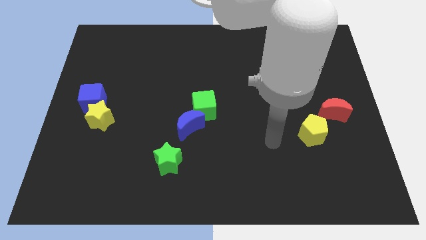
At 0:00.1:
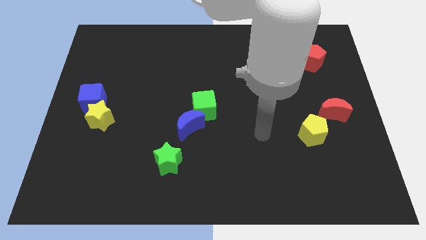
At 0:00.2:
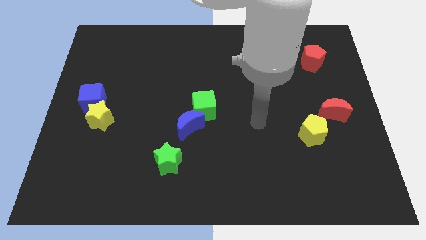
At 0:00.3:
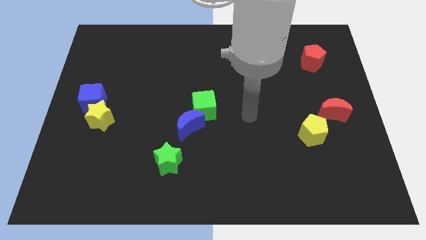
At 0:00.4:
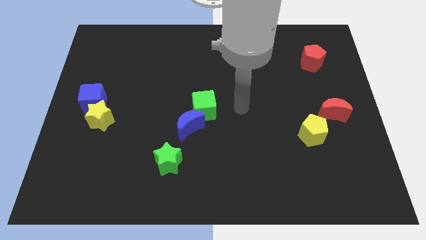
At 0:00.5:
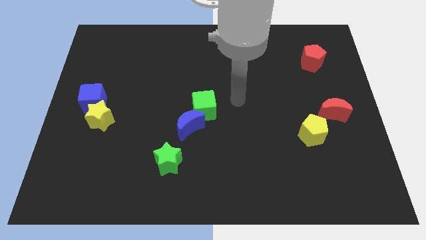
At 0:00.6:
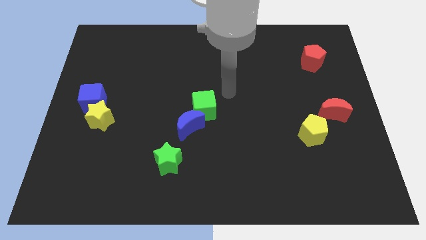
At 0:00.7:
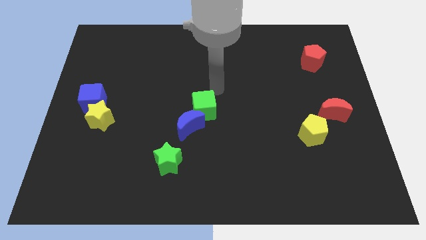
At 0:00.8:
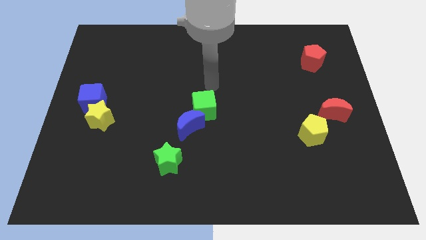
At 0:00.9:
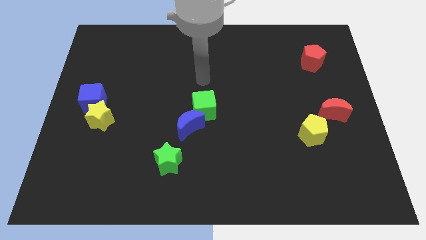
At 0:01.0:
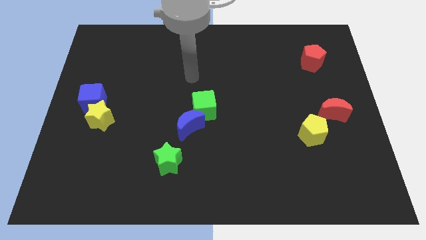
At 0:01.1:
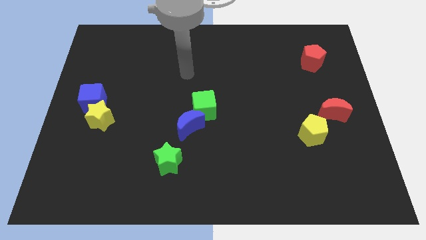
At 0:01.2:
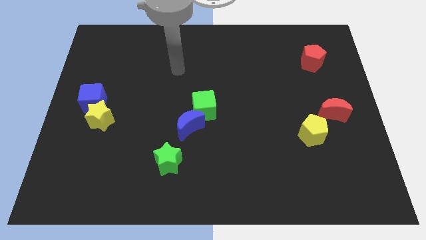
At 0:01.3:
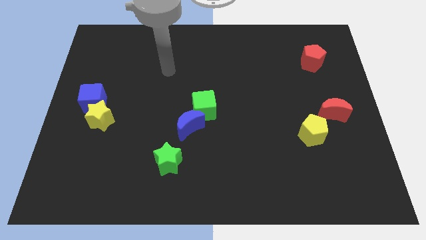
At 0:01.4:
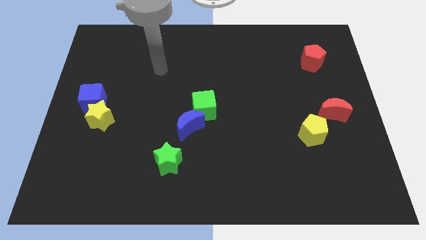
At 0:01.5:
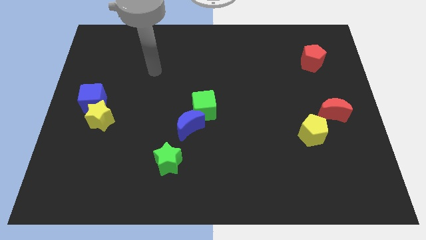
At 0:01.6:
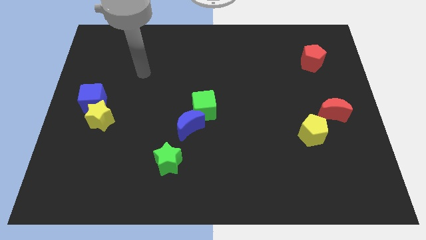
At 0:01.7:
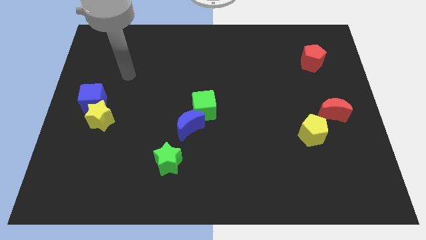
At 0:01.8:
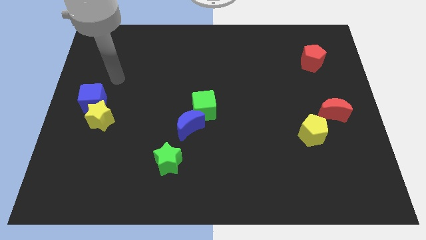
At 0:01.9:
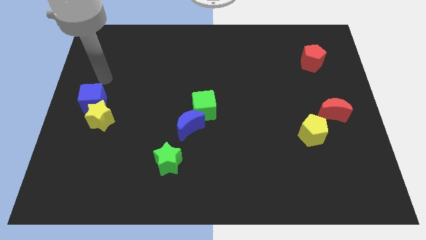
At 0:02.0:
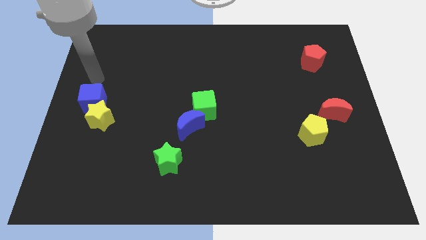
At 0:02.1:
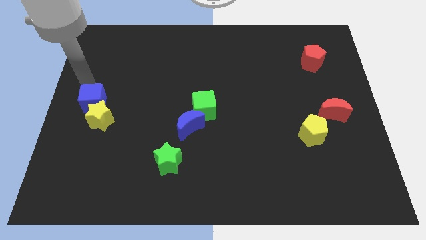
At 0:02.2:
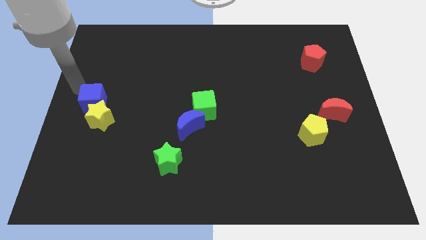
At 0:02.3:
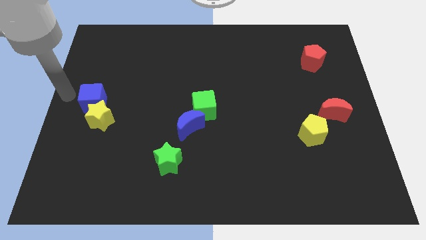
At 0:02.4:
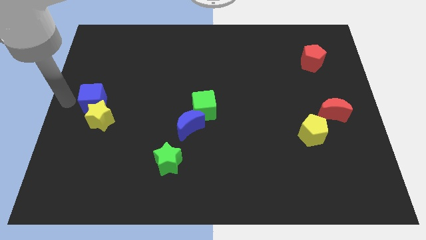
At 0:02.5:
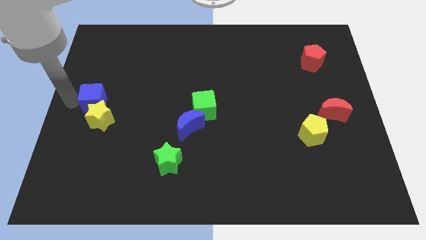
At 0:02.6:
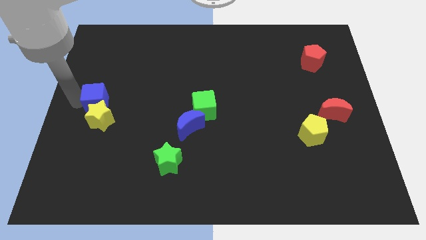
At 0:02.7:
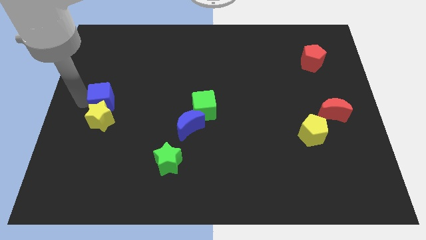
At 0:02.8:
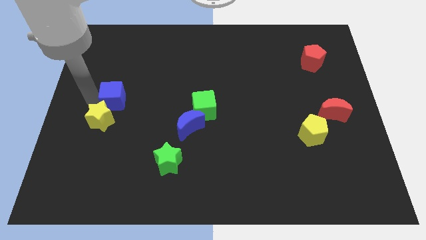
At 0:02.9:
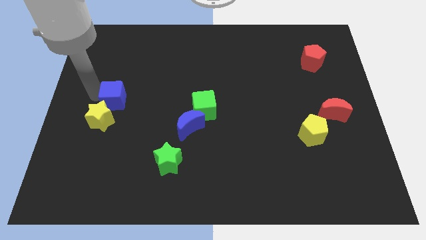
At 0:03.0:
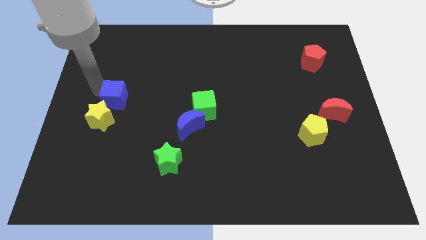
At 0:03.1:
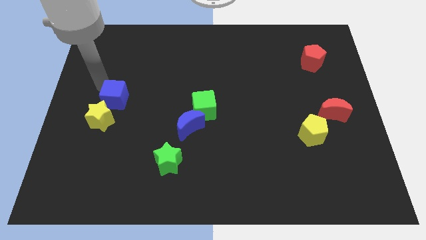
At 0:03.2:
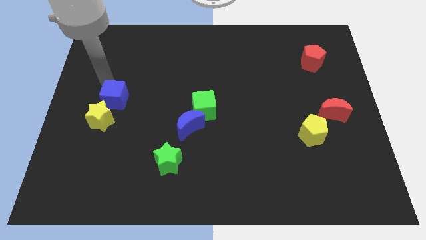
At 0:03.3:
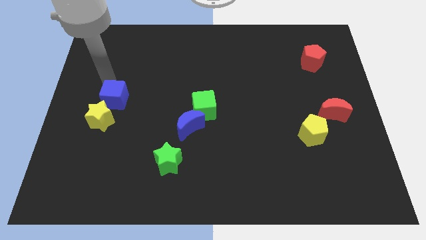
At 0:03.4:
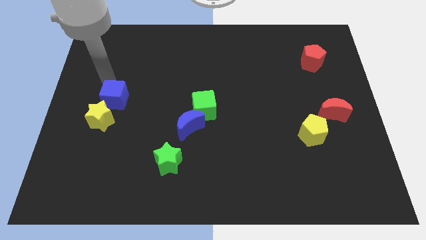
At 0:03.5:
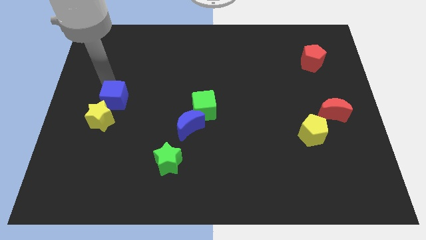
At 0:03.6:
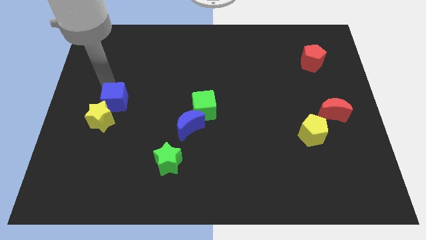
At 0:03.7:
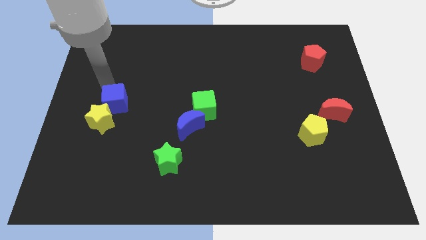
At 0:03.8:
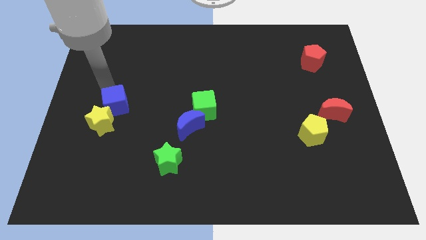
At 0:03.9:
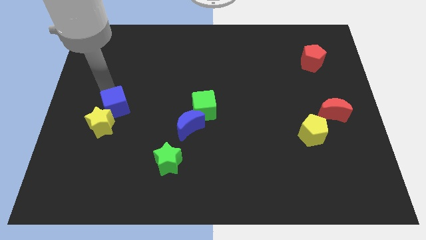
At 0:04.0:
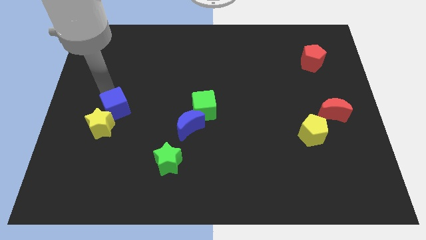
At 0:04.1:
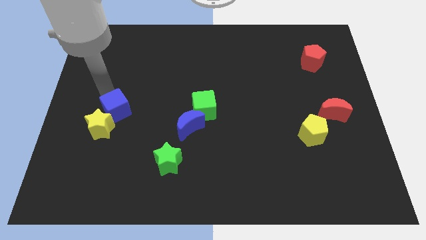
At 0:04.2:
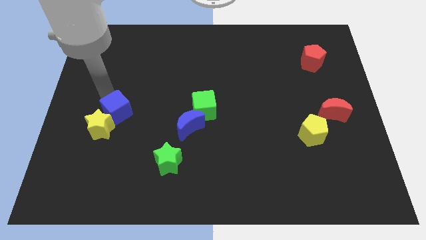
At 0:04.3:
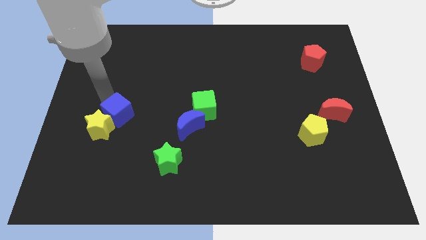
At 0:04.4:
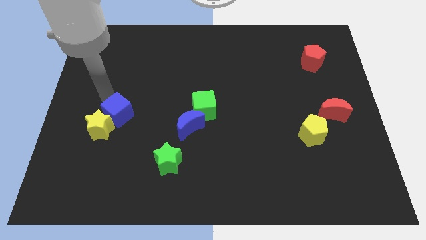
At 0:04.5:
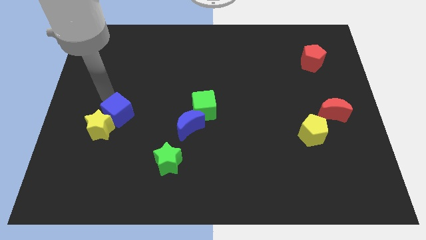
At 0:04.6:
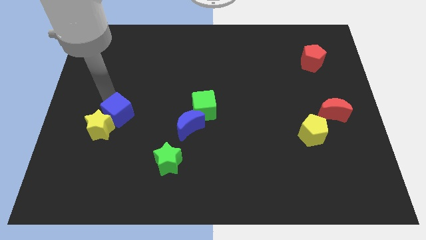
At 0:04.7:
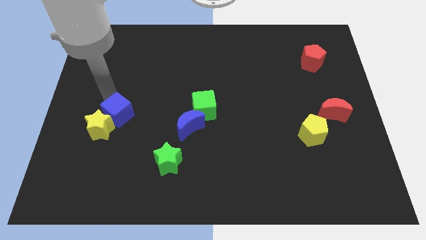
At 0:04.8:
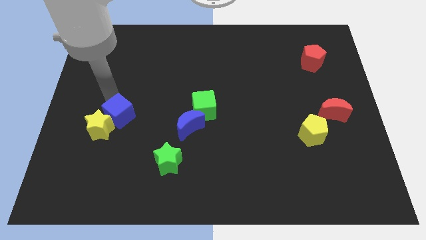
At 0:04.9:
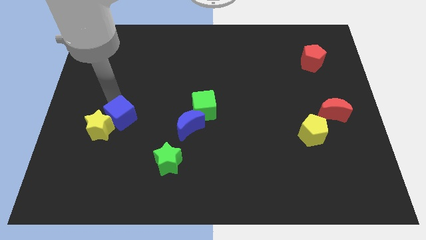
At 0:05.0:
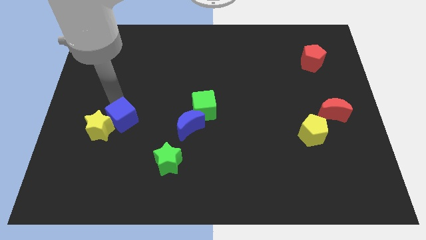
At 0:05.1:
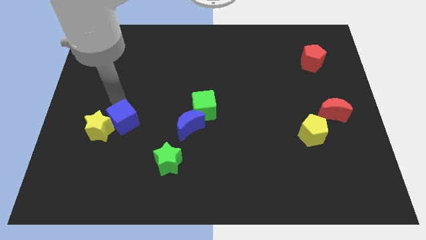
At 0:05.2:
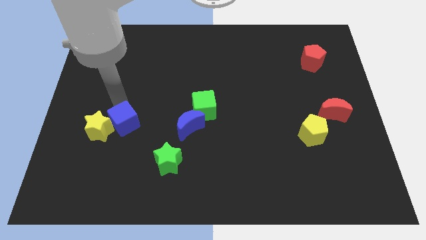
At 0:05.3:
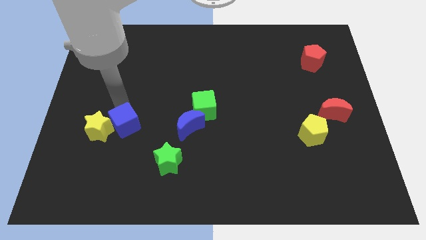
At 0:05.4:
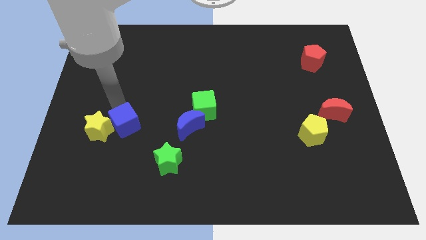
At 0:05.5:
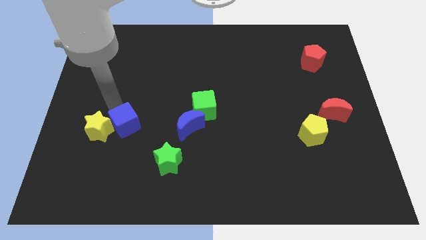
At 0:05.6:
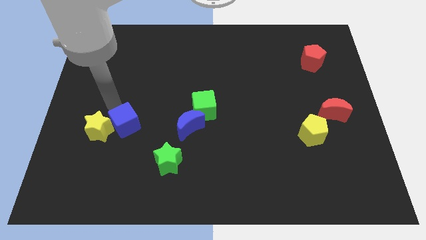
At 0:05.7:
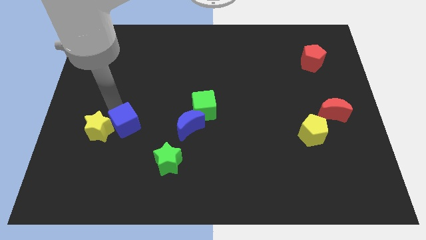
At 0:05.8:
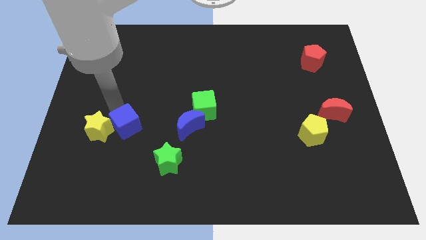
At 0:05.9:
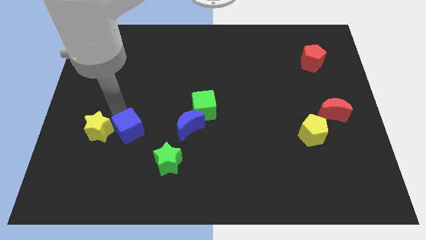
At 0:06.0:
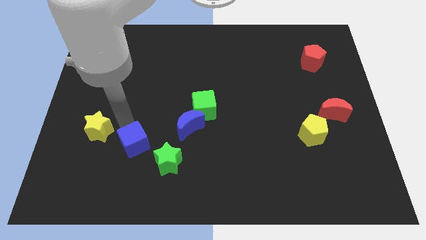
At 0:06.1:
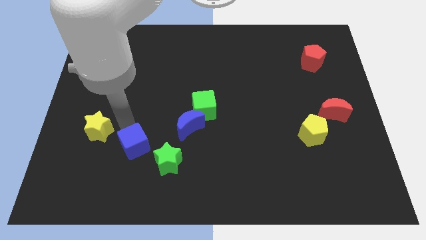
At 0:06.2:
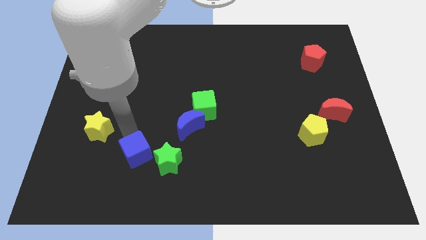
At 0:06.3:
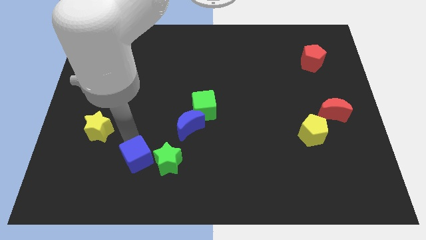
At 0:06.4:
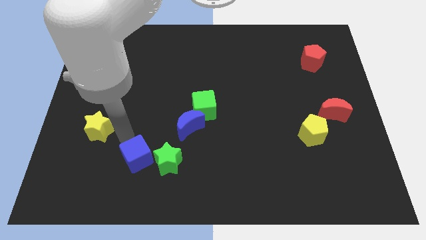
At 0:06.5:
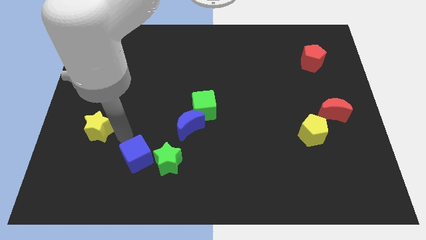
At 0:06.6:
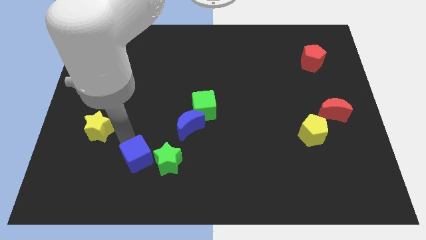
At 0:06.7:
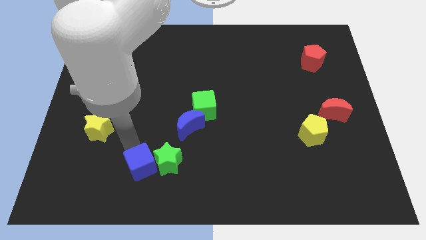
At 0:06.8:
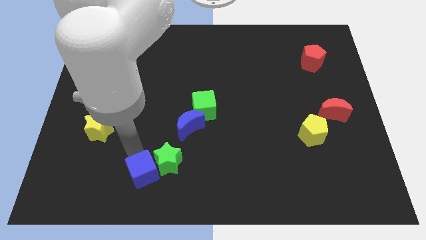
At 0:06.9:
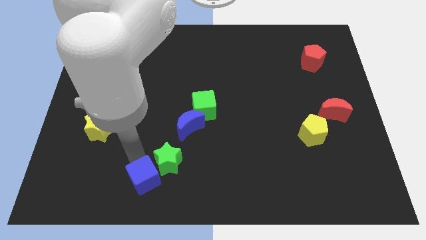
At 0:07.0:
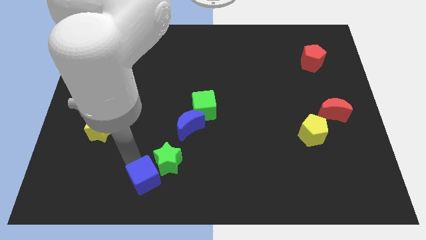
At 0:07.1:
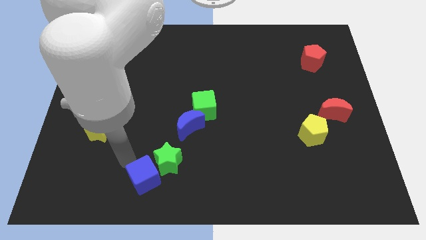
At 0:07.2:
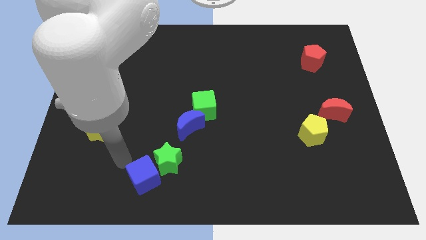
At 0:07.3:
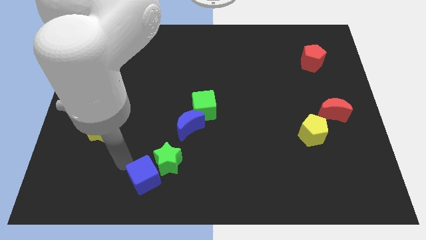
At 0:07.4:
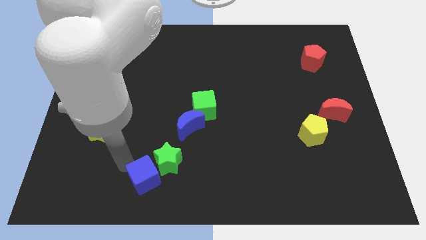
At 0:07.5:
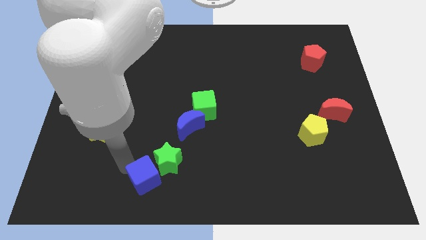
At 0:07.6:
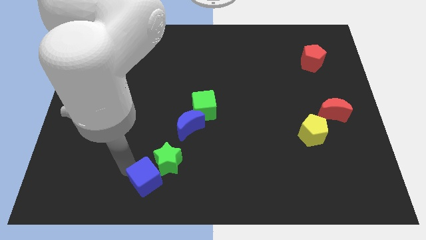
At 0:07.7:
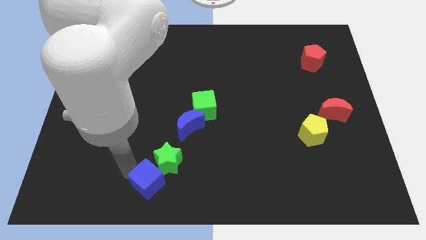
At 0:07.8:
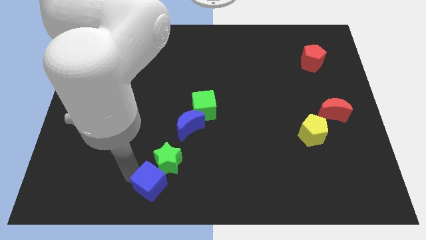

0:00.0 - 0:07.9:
push the blue cube to the bottom
